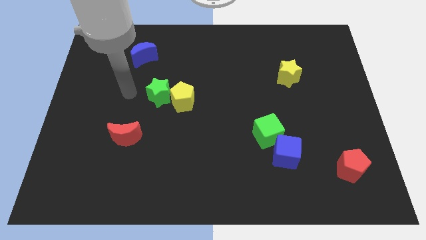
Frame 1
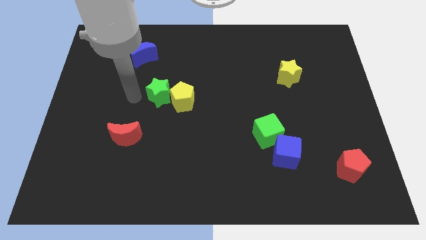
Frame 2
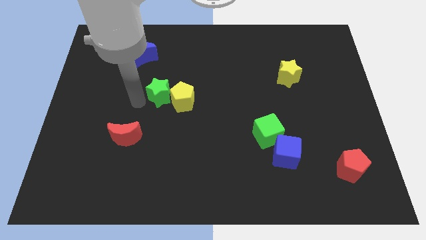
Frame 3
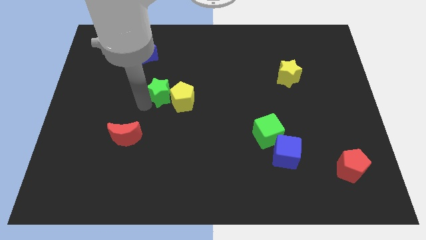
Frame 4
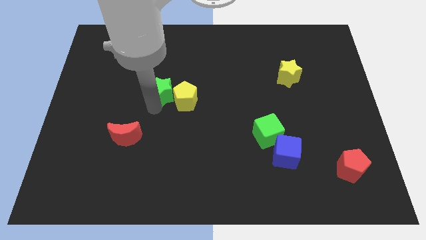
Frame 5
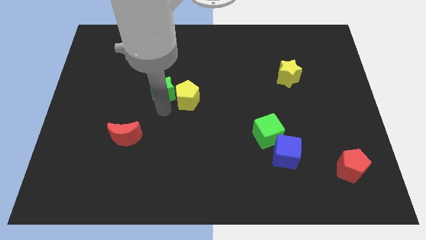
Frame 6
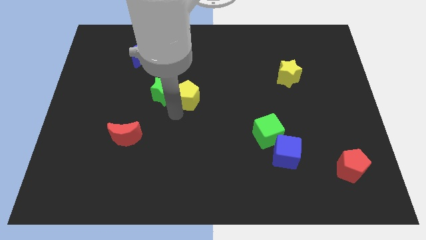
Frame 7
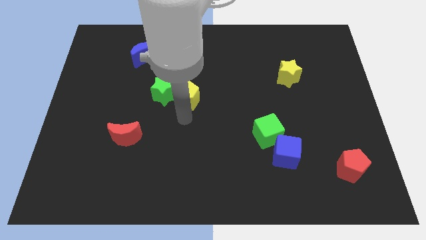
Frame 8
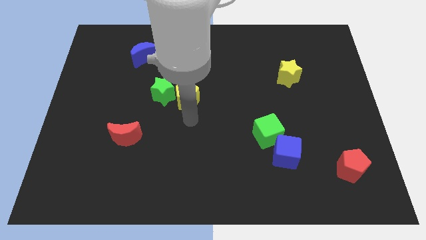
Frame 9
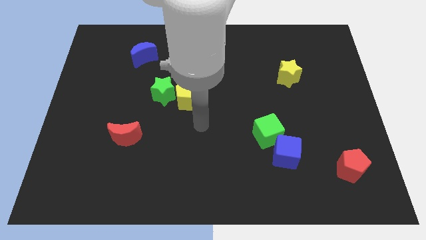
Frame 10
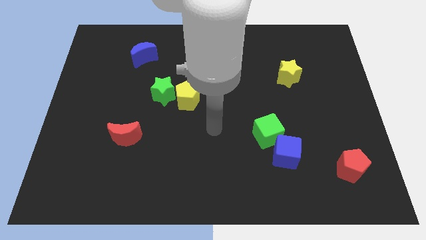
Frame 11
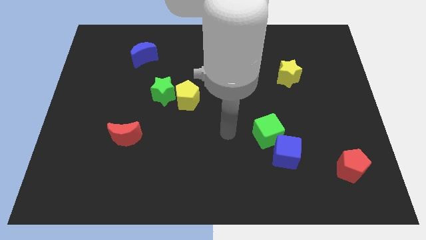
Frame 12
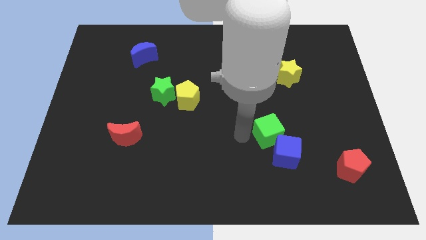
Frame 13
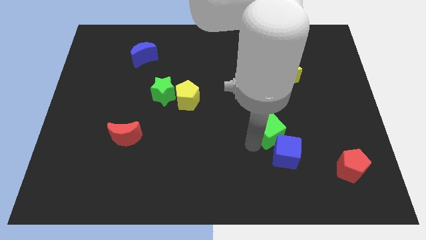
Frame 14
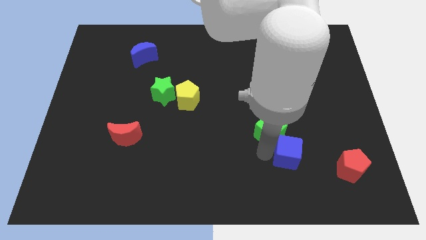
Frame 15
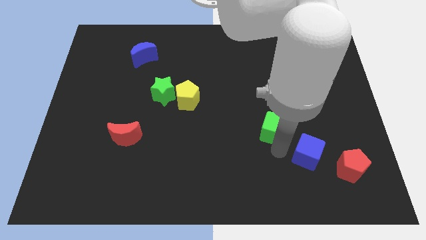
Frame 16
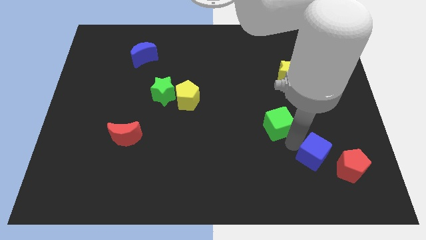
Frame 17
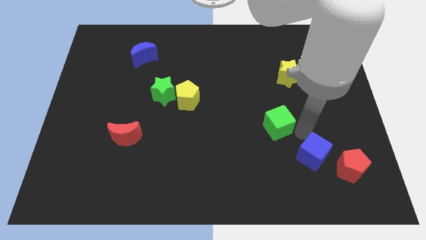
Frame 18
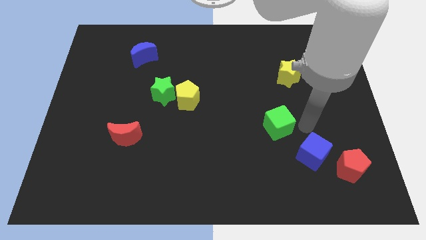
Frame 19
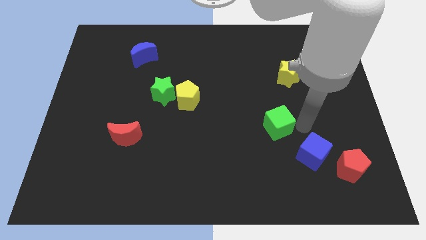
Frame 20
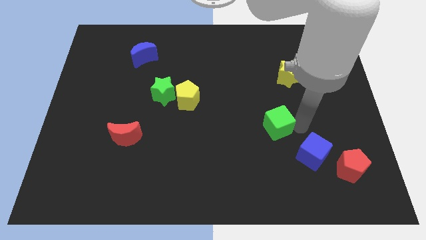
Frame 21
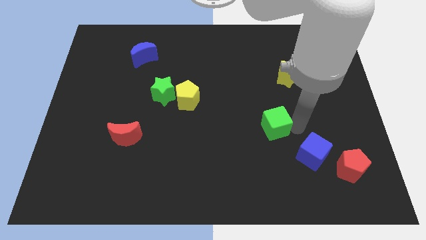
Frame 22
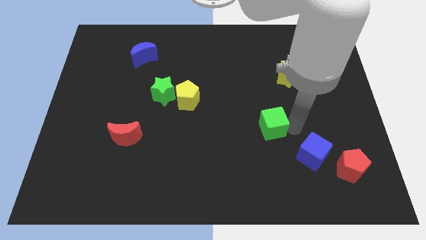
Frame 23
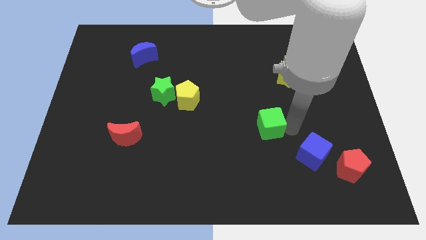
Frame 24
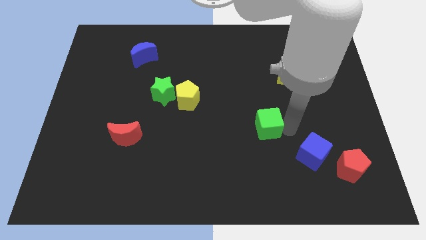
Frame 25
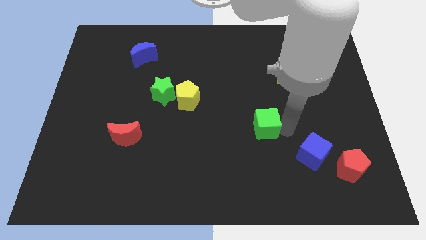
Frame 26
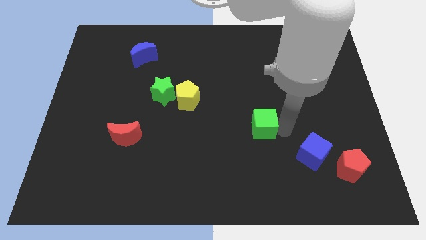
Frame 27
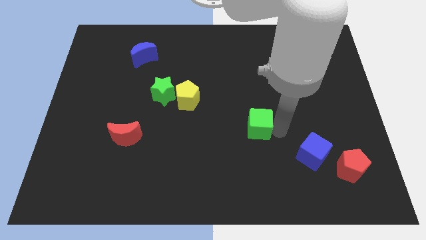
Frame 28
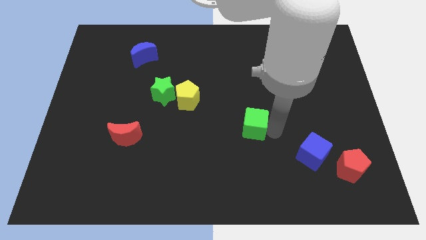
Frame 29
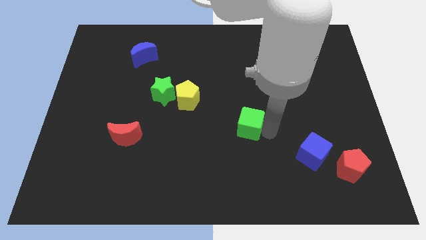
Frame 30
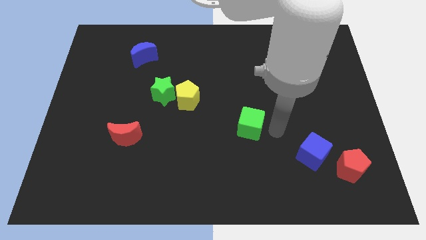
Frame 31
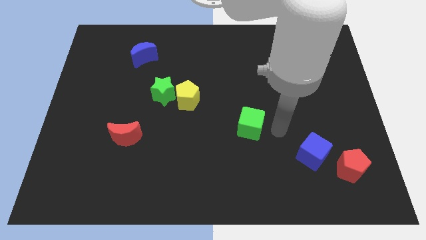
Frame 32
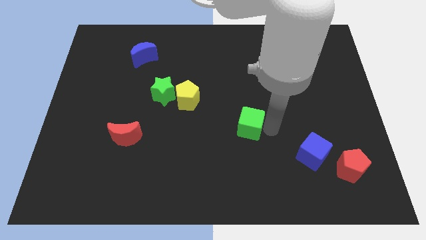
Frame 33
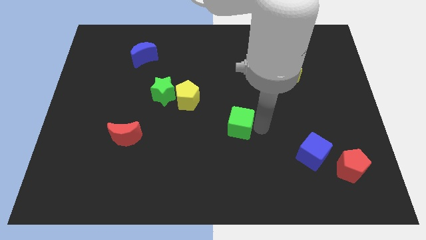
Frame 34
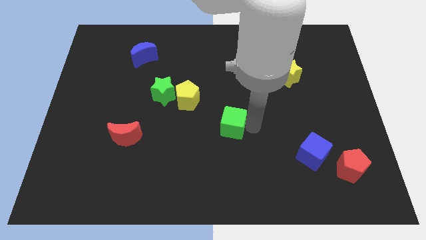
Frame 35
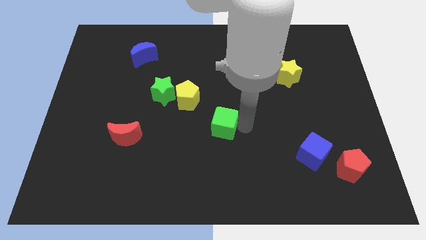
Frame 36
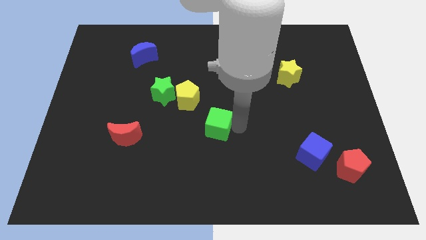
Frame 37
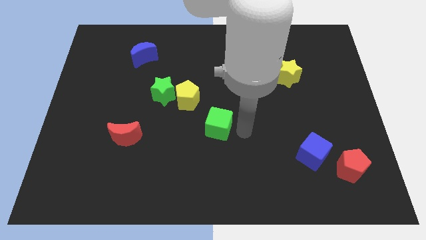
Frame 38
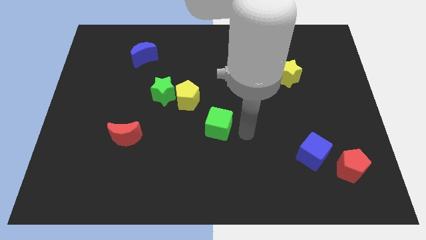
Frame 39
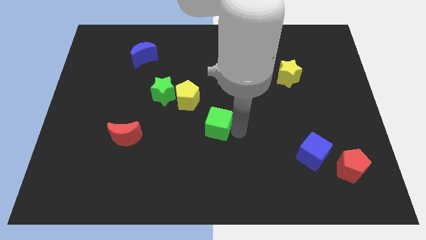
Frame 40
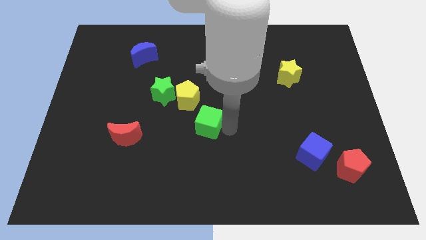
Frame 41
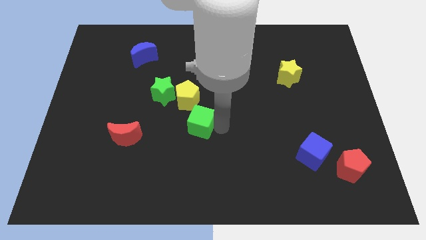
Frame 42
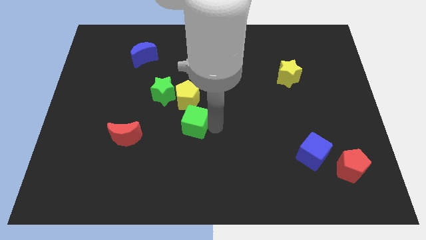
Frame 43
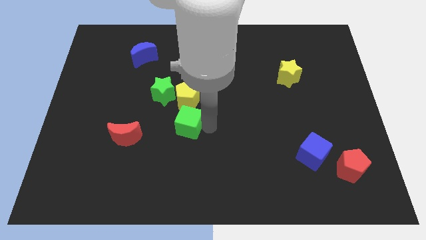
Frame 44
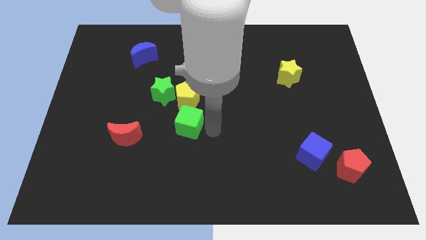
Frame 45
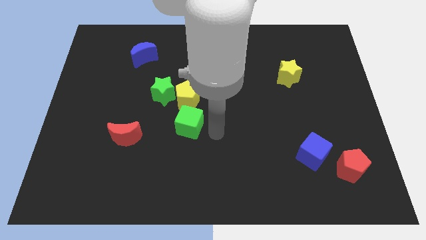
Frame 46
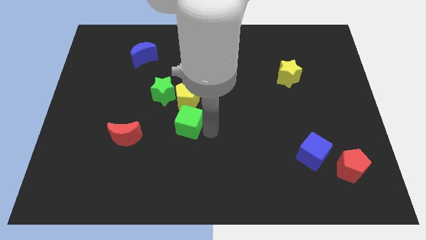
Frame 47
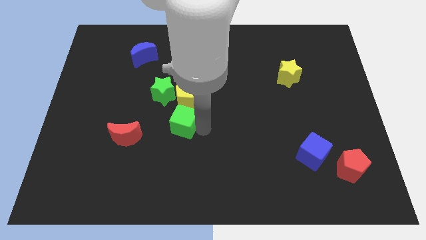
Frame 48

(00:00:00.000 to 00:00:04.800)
push the green cube diagonally down and to the left of the yellow pentagon

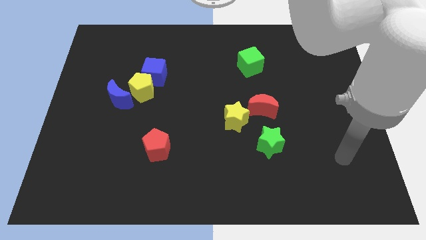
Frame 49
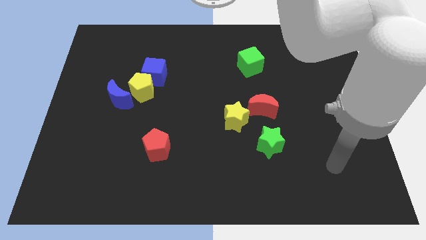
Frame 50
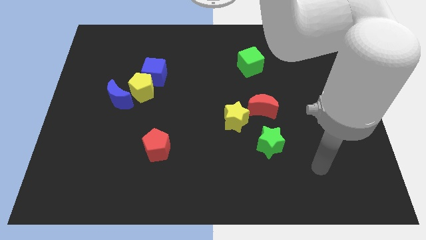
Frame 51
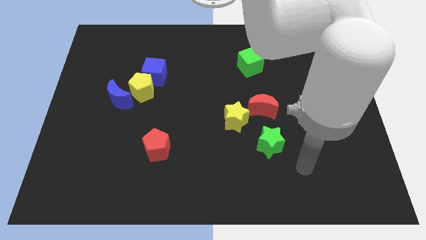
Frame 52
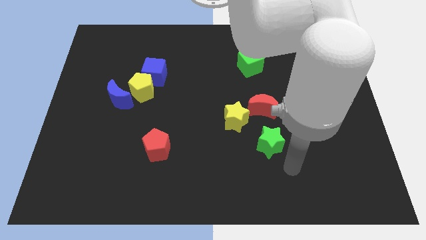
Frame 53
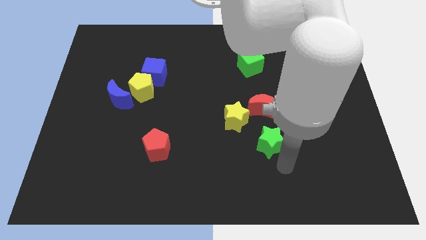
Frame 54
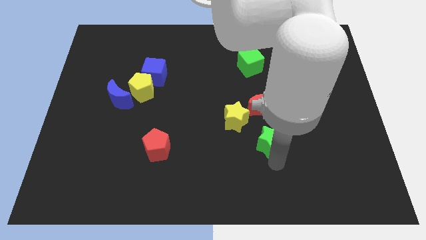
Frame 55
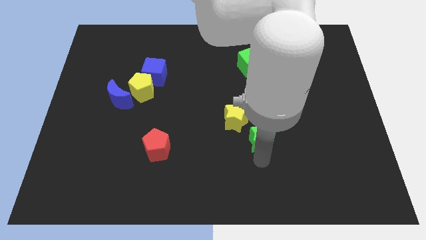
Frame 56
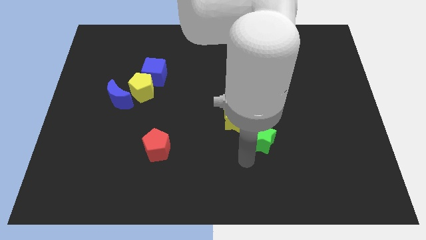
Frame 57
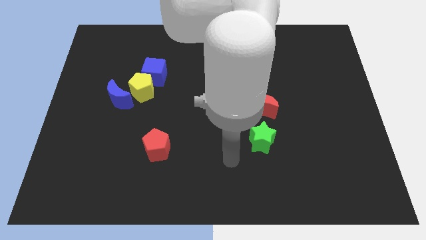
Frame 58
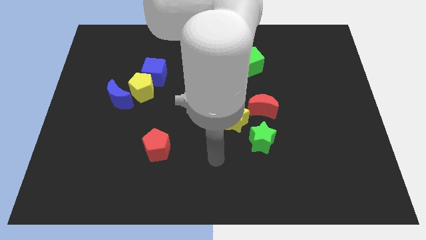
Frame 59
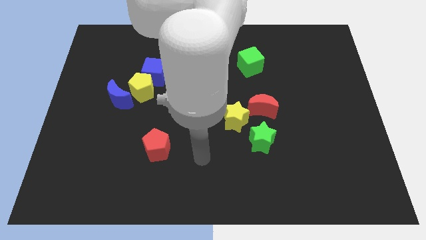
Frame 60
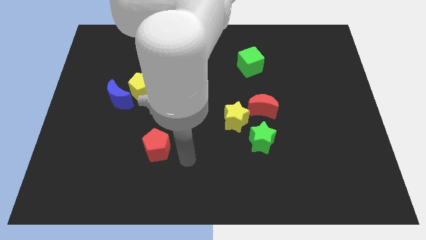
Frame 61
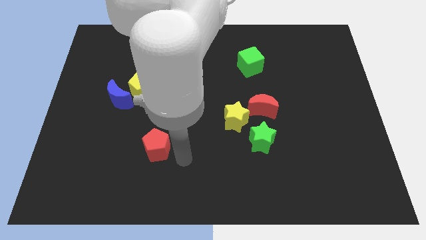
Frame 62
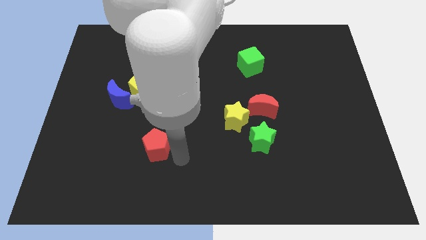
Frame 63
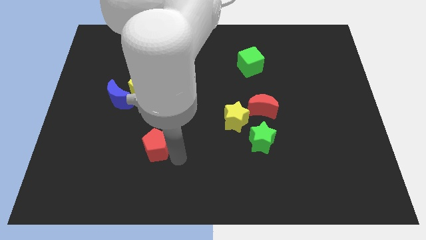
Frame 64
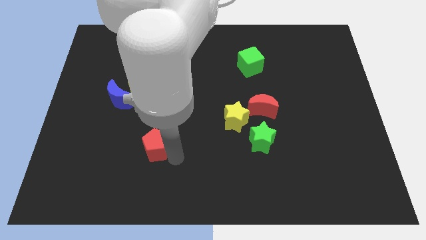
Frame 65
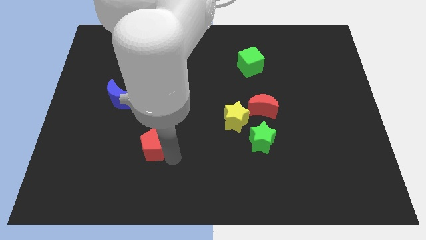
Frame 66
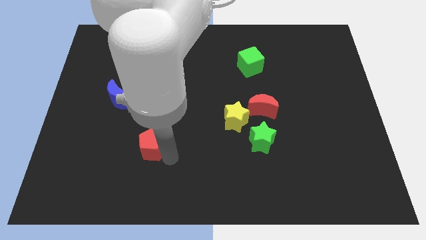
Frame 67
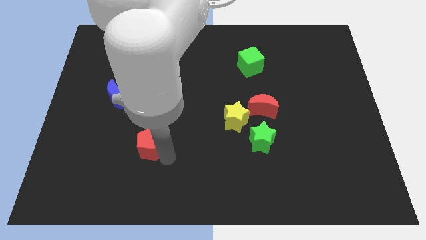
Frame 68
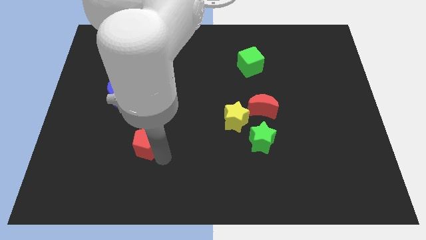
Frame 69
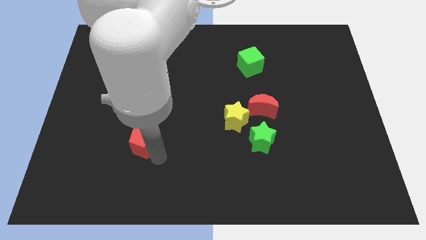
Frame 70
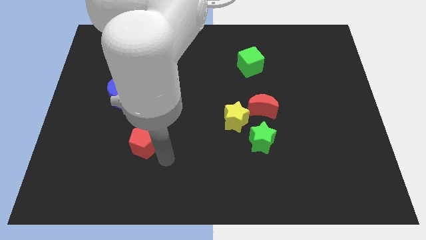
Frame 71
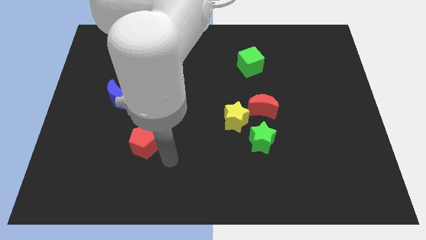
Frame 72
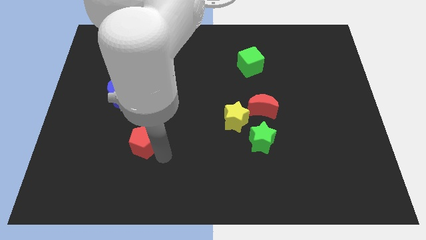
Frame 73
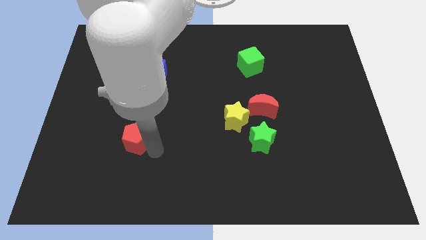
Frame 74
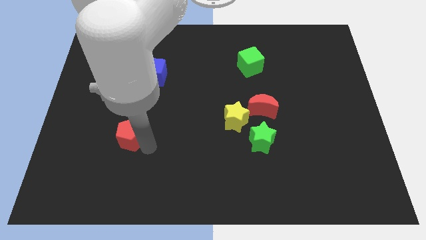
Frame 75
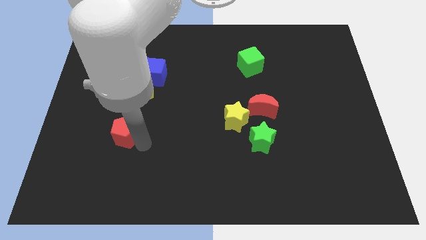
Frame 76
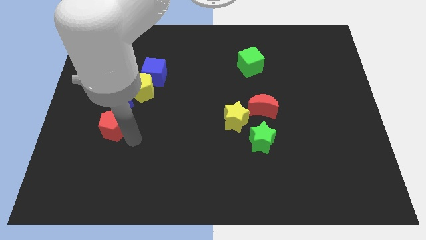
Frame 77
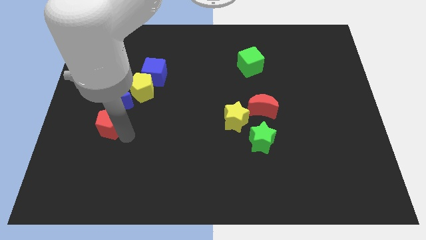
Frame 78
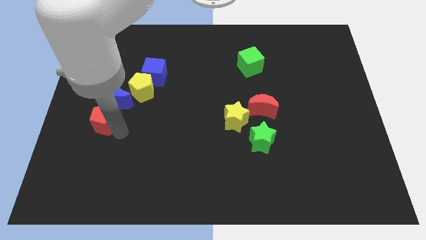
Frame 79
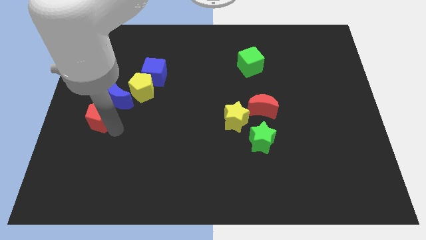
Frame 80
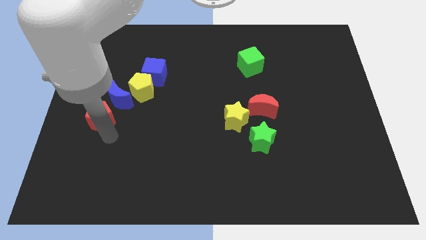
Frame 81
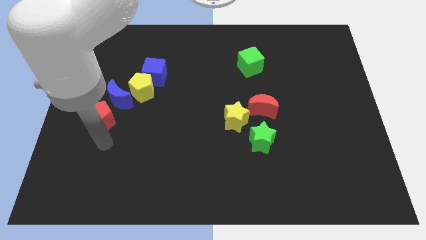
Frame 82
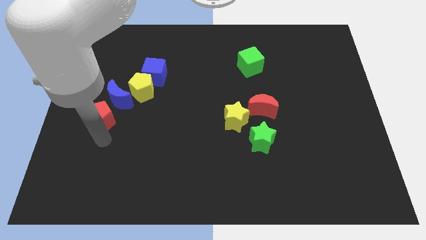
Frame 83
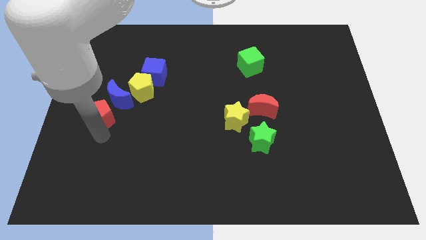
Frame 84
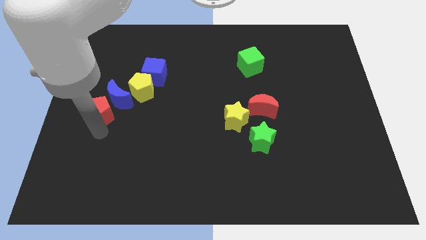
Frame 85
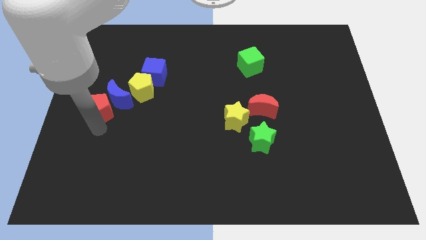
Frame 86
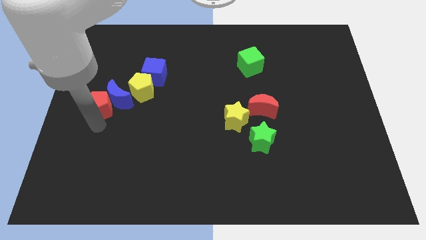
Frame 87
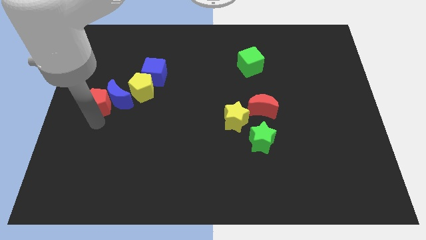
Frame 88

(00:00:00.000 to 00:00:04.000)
push the red pentagon diagonally up and to the left of the blue moon
